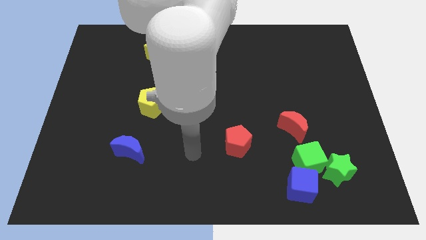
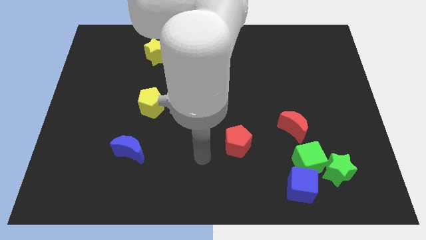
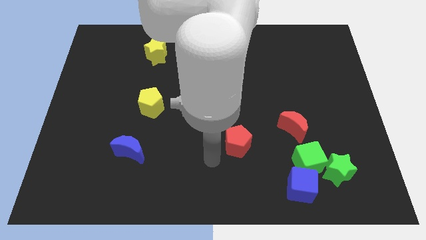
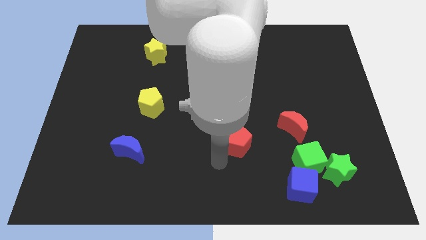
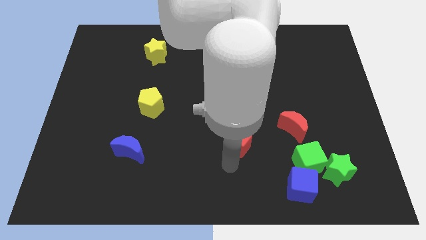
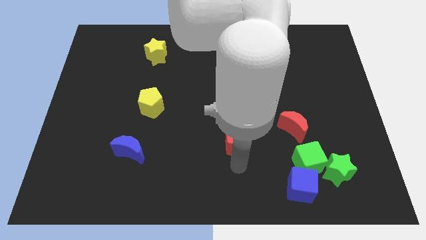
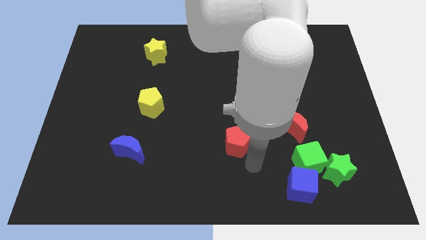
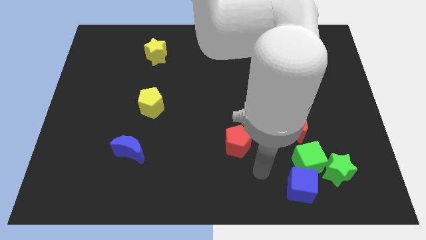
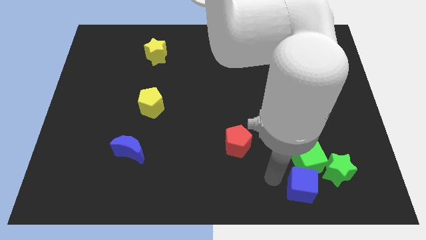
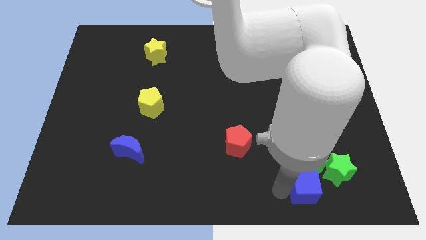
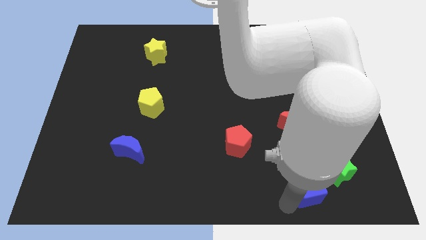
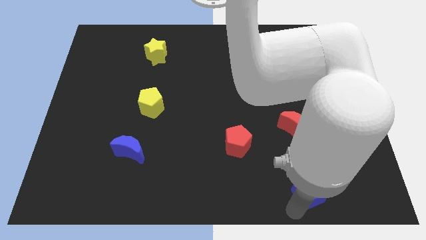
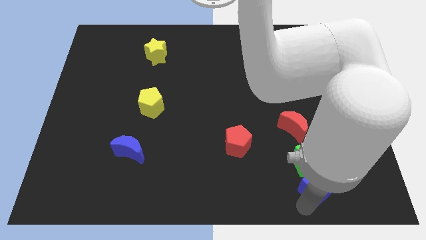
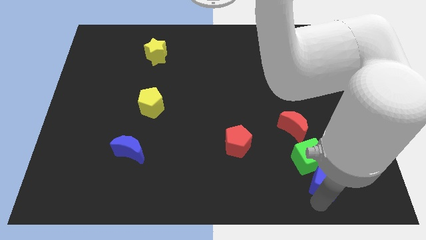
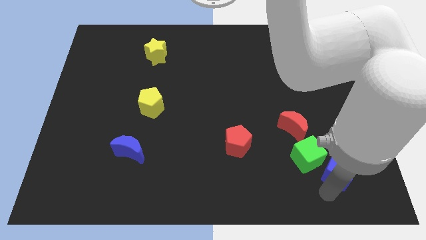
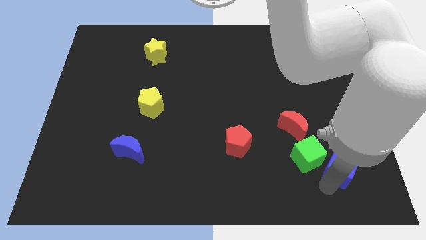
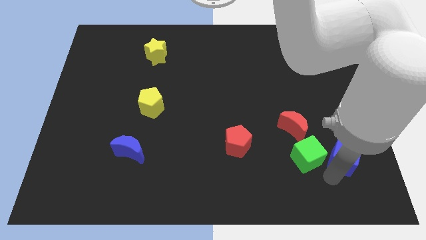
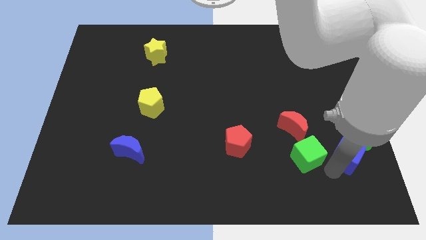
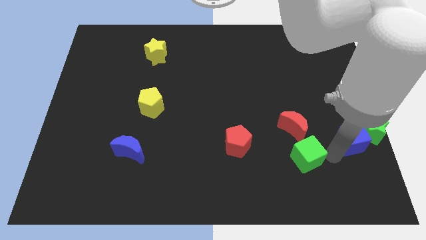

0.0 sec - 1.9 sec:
pull the green cube apart from the group of blocks

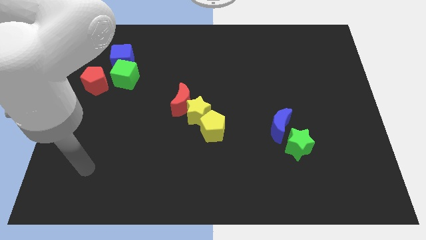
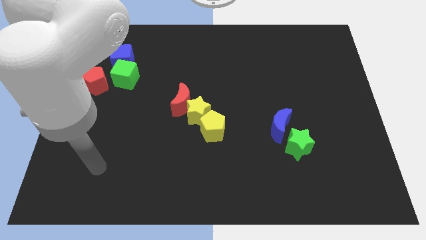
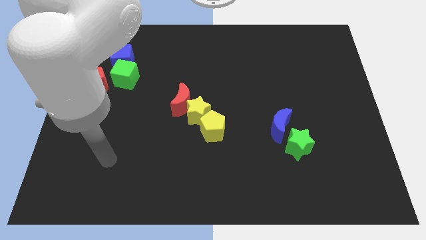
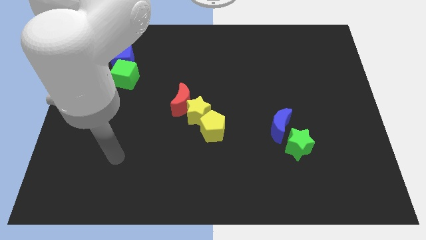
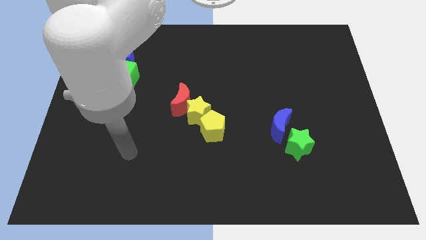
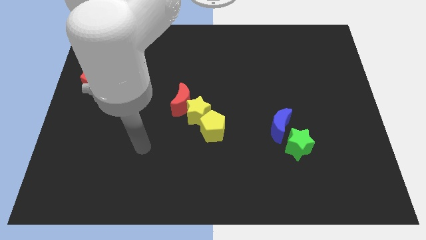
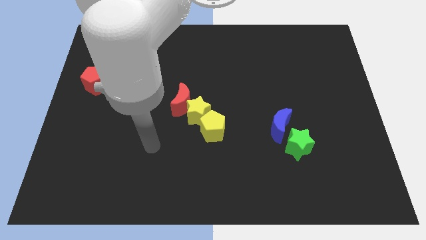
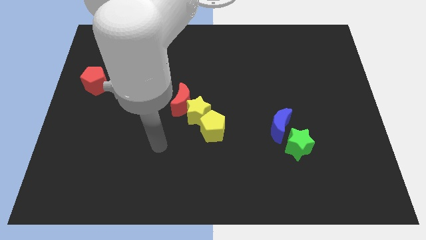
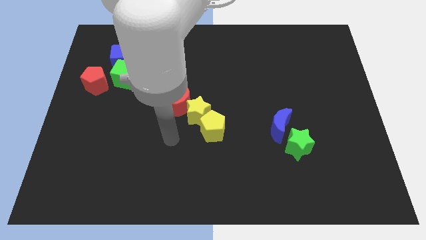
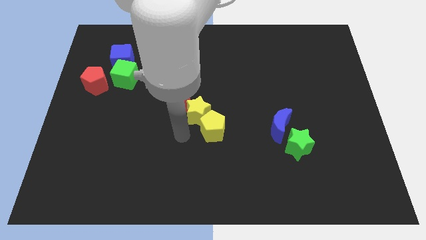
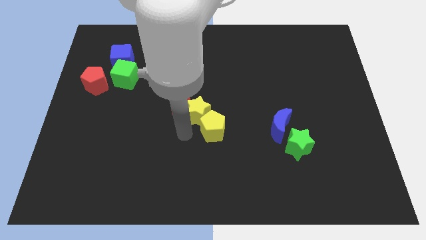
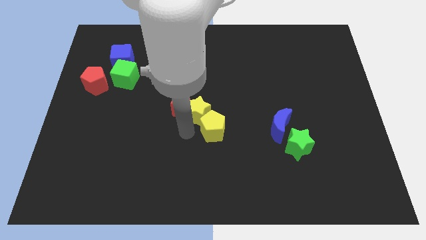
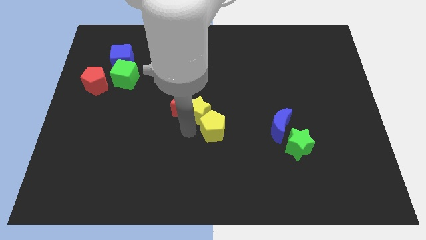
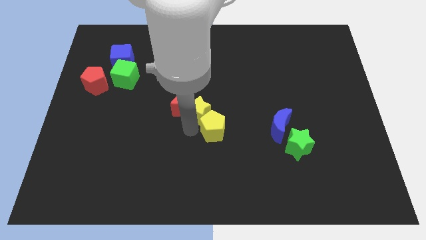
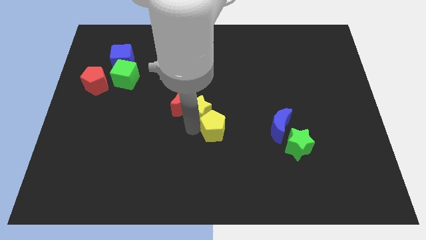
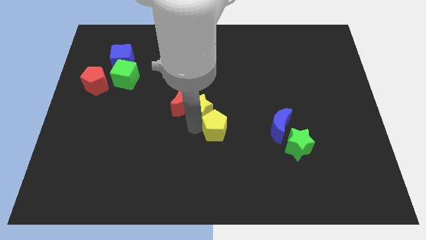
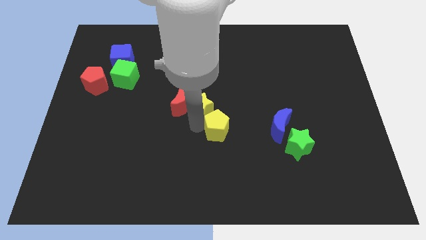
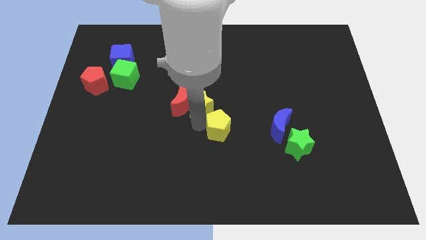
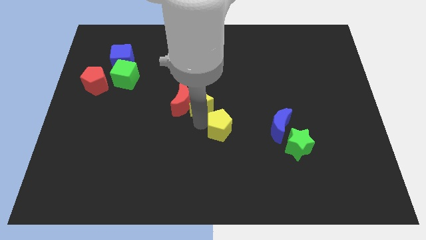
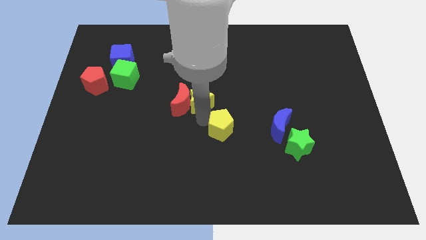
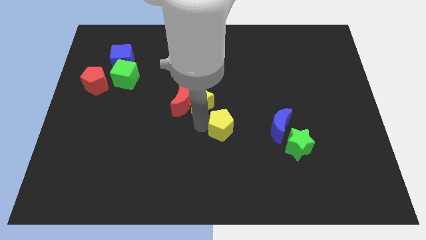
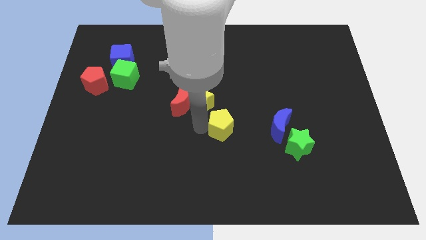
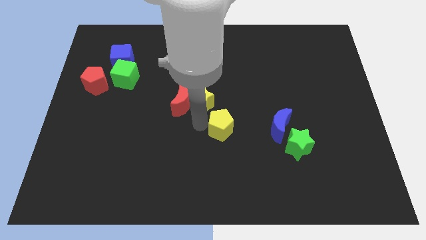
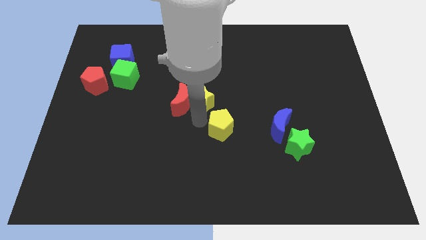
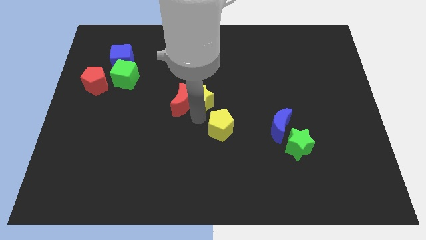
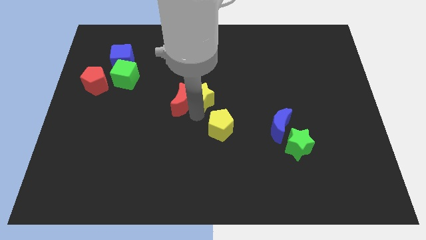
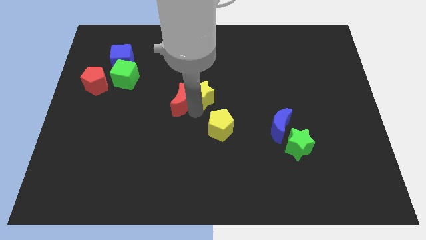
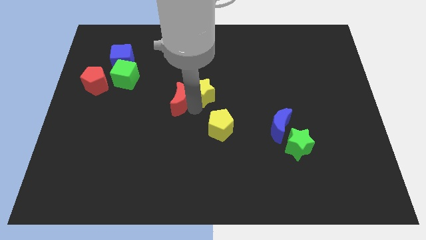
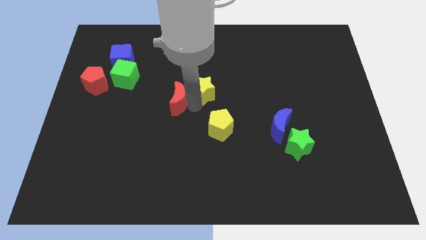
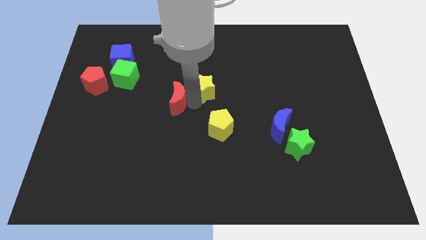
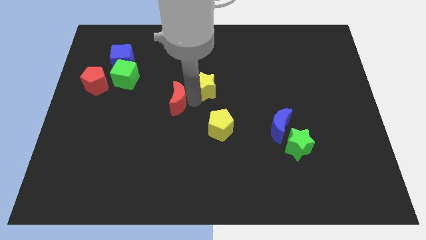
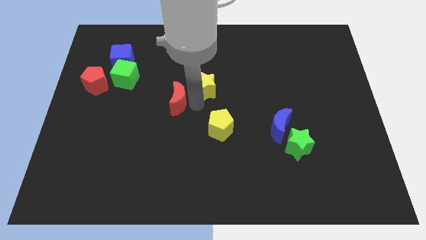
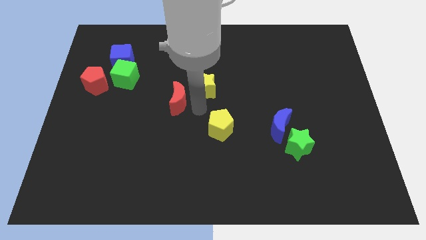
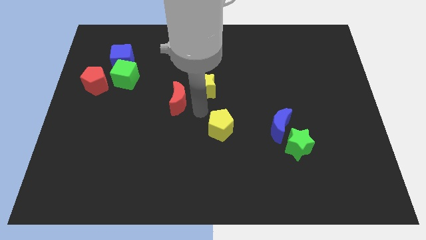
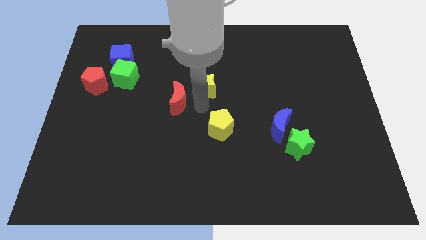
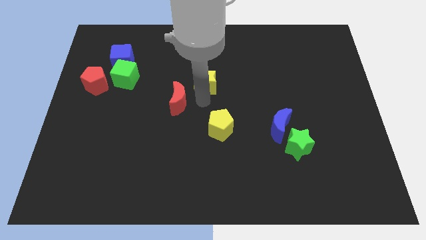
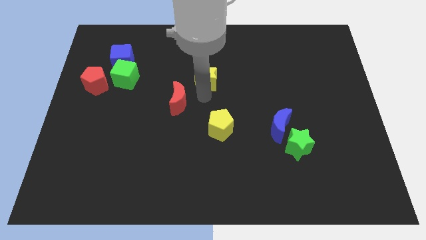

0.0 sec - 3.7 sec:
separate the yellow star from the red moon and yellow pentagon

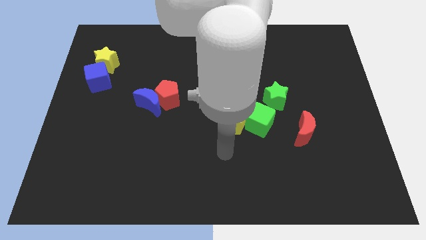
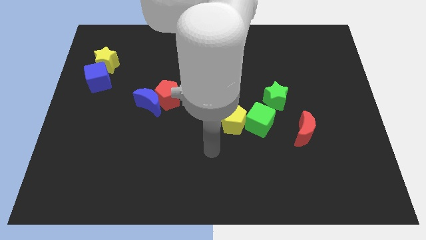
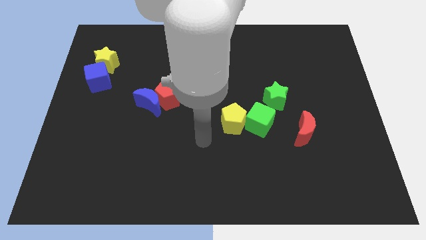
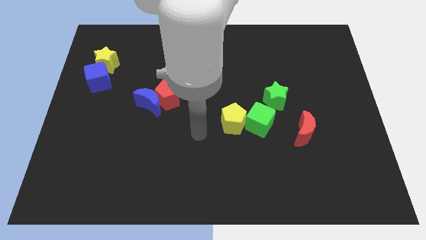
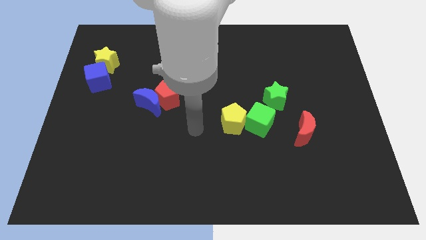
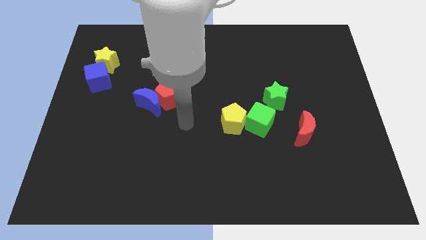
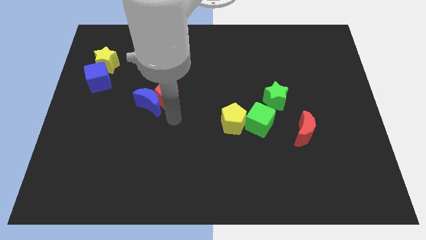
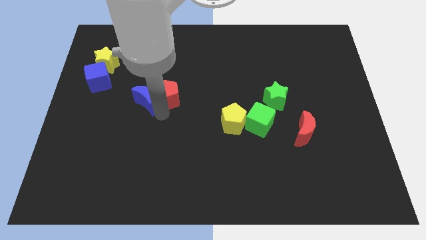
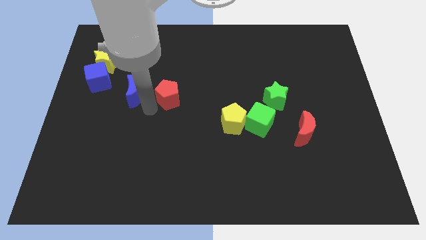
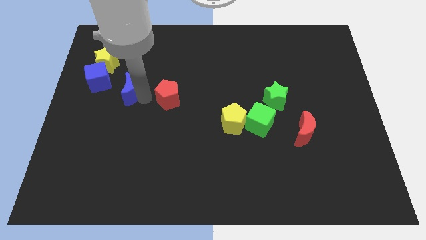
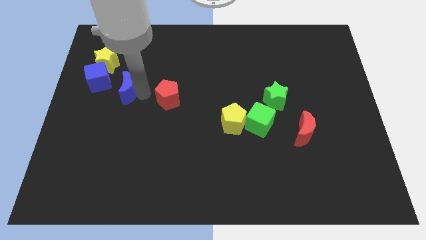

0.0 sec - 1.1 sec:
separate the red pentagon from the blue moon

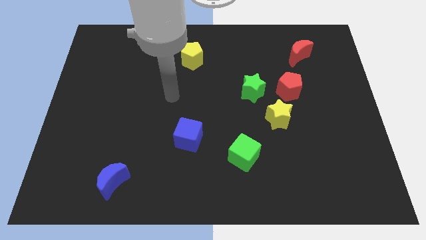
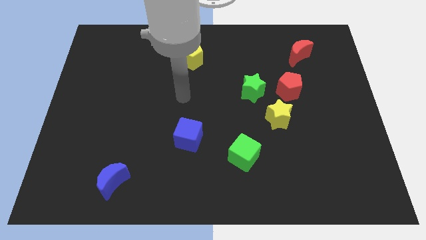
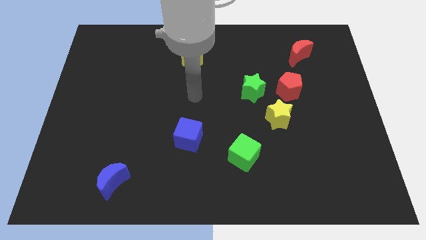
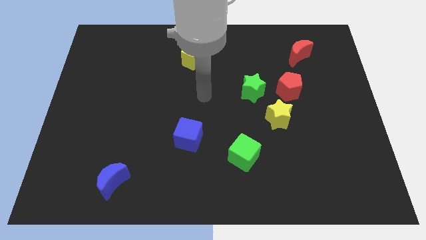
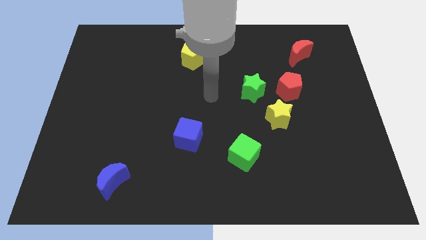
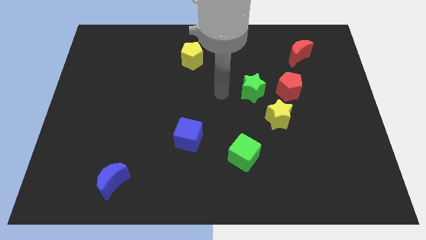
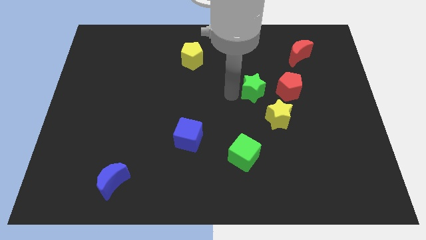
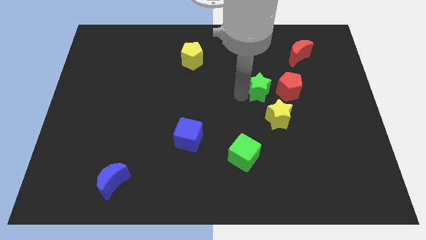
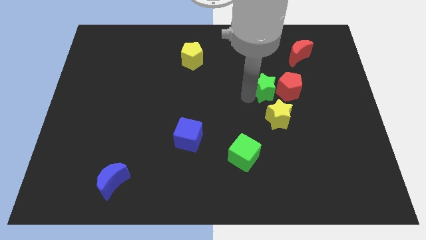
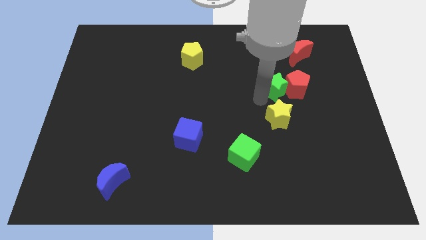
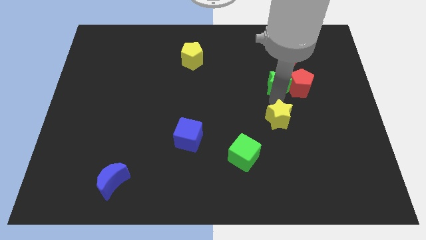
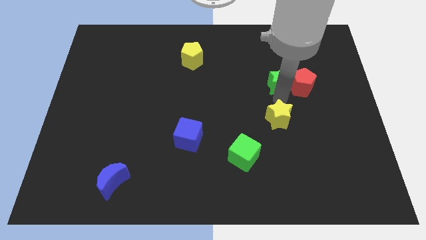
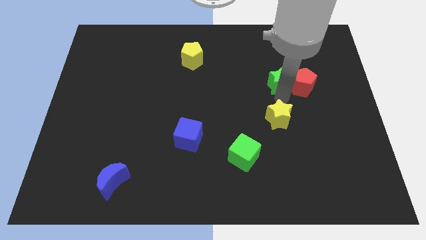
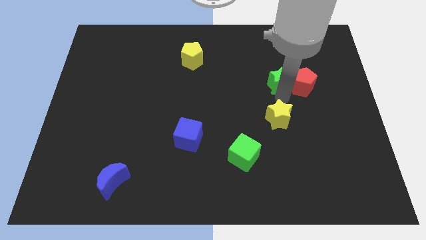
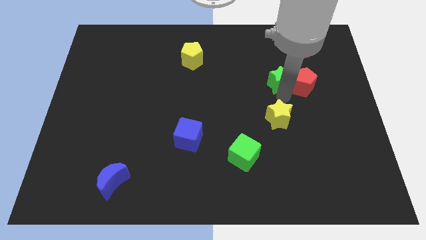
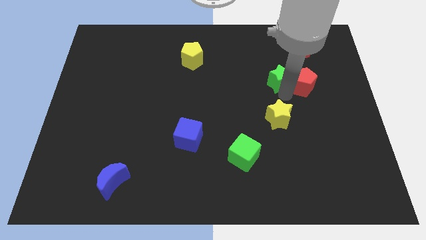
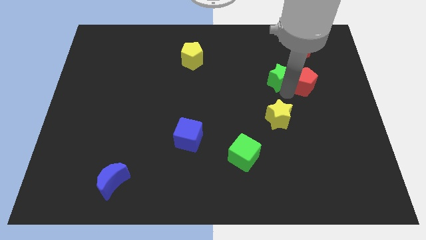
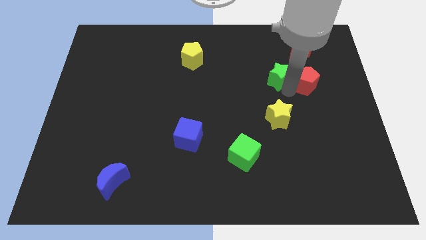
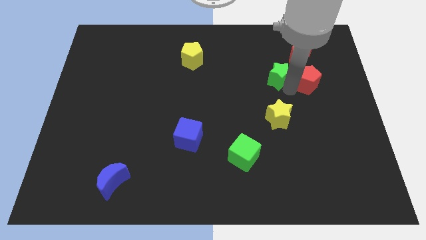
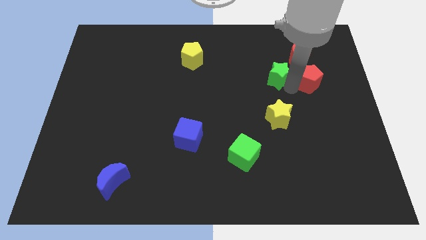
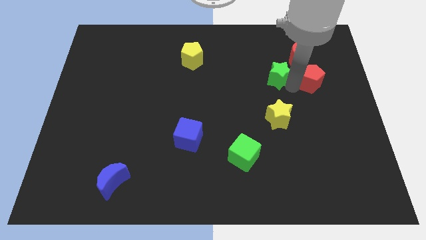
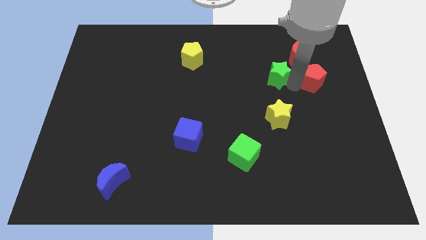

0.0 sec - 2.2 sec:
separate the red pentagon from the yellow star and green star

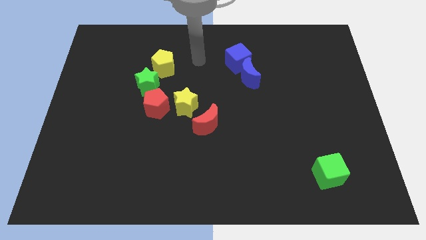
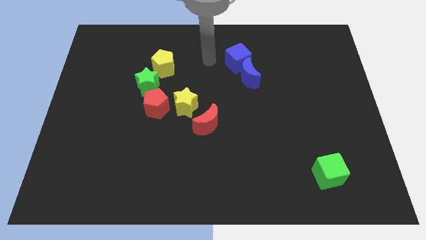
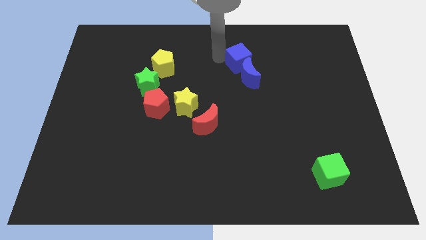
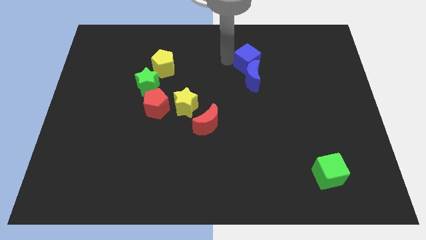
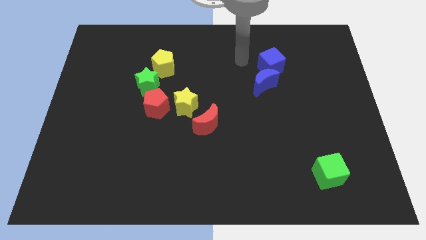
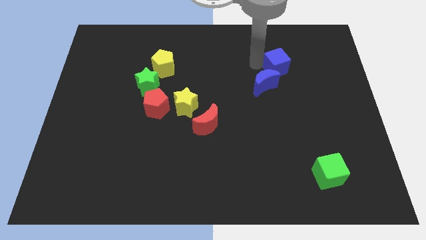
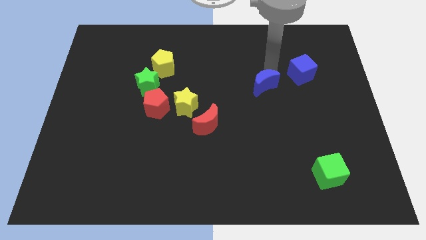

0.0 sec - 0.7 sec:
move the blue moon away from the blue cube
